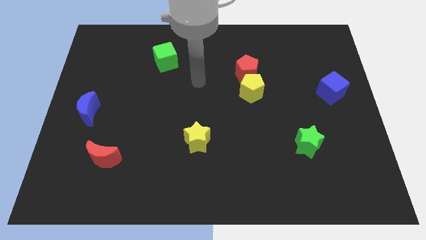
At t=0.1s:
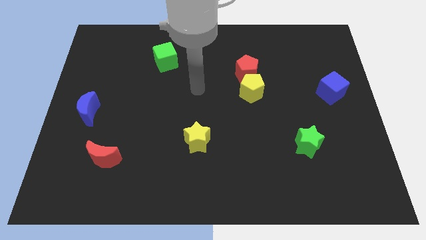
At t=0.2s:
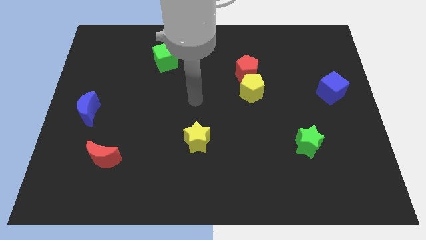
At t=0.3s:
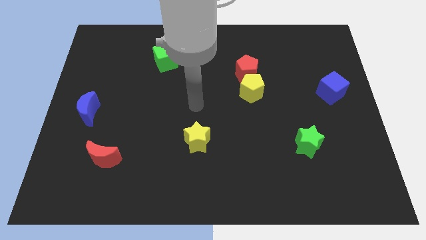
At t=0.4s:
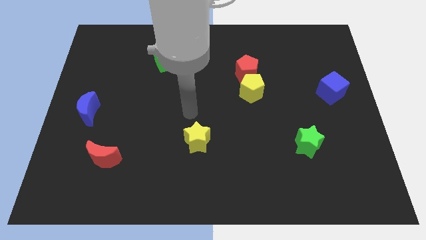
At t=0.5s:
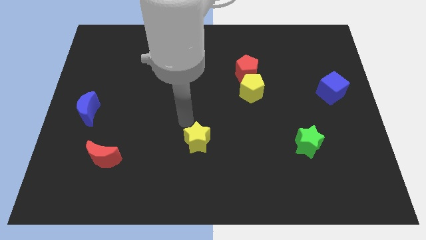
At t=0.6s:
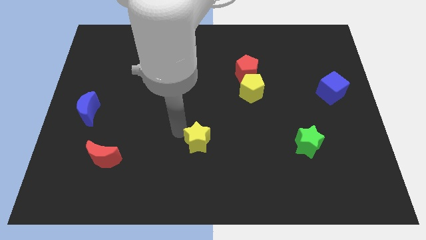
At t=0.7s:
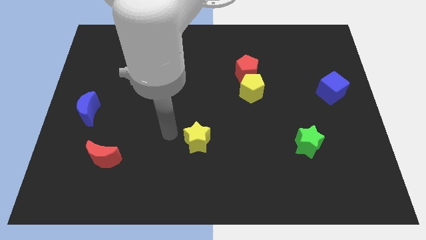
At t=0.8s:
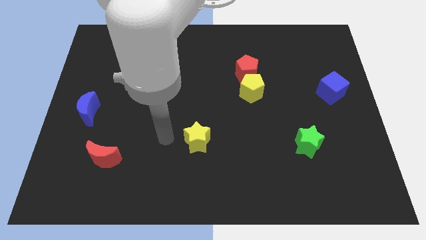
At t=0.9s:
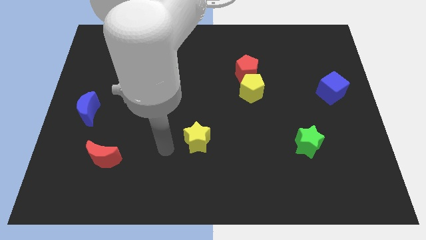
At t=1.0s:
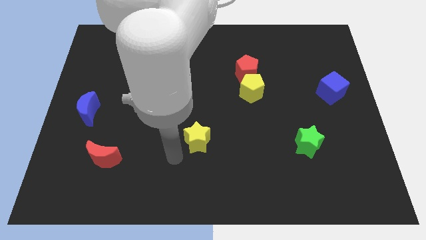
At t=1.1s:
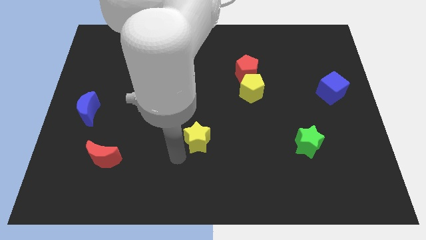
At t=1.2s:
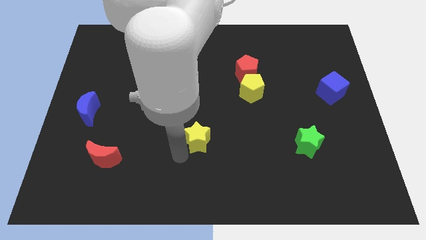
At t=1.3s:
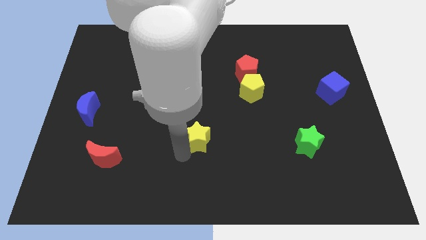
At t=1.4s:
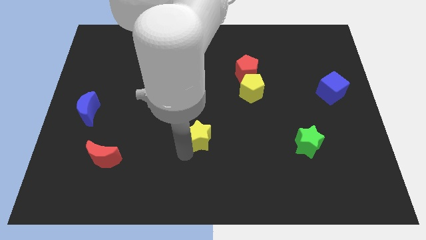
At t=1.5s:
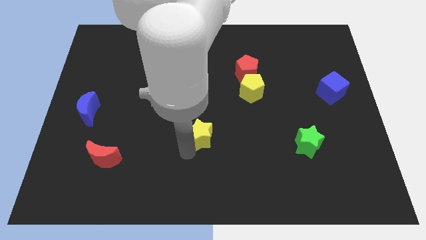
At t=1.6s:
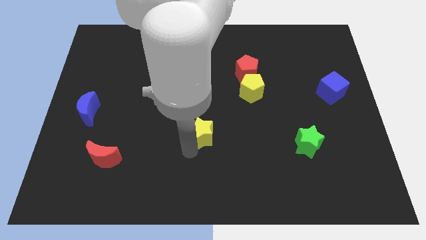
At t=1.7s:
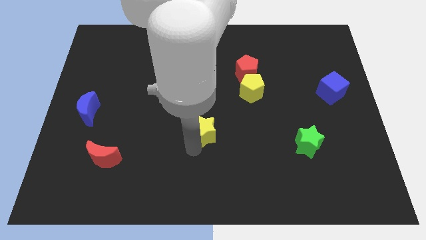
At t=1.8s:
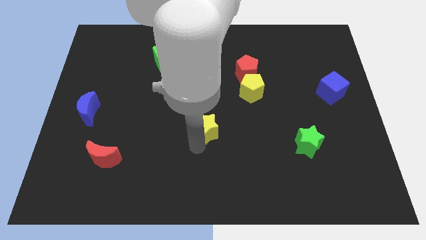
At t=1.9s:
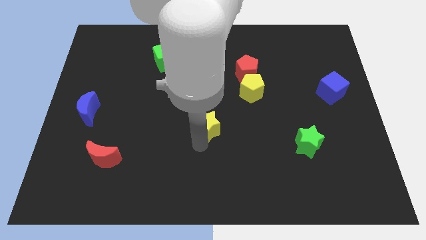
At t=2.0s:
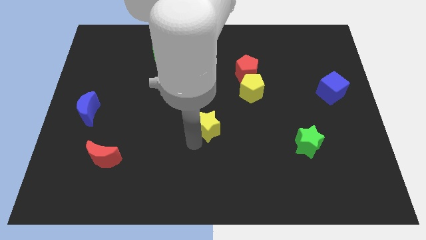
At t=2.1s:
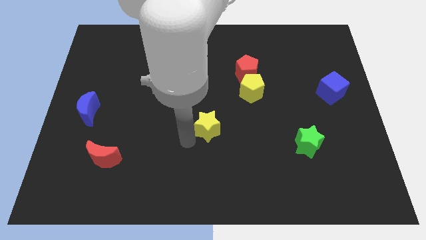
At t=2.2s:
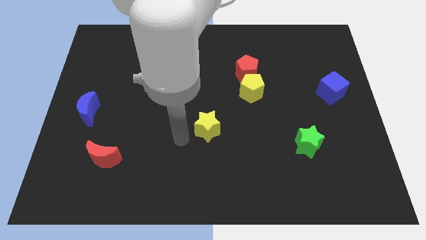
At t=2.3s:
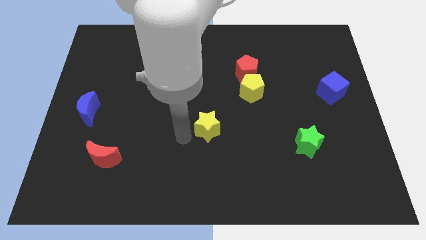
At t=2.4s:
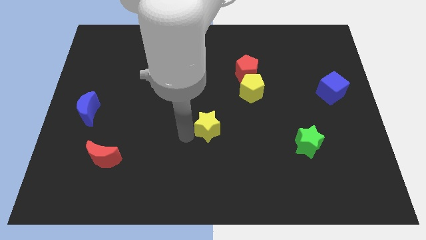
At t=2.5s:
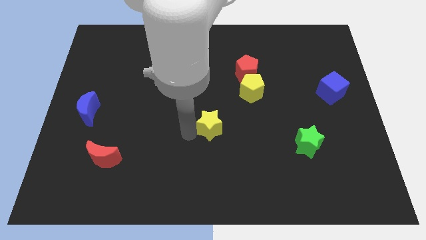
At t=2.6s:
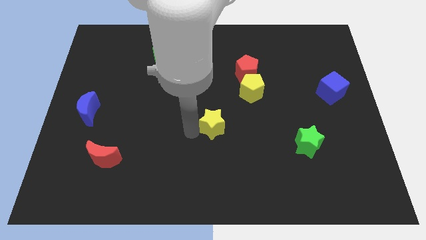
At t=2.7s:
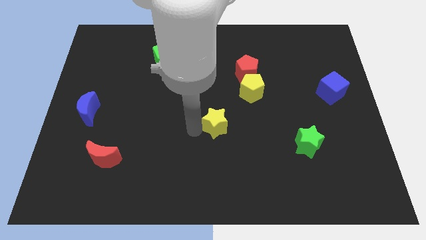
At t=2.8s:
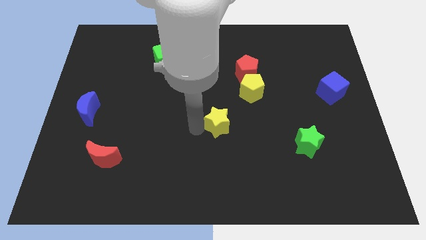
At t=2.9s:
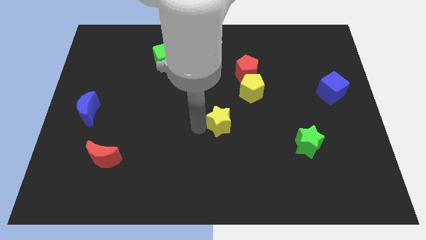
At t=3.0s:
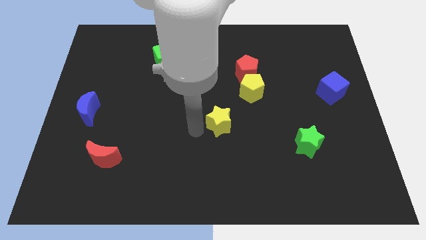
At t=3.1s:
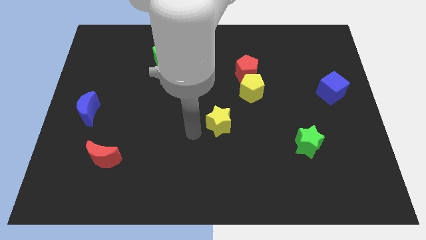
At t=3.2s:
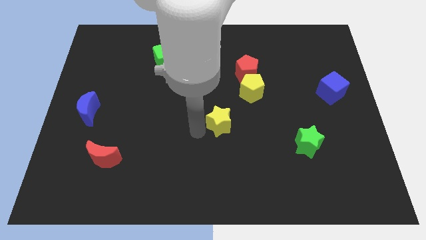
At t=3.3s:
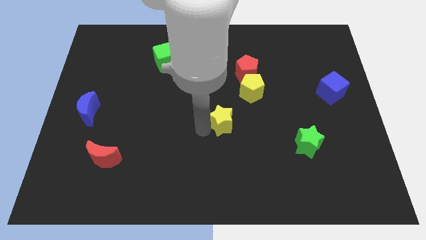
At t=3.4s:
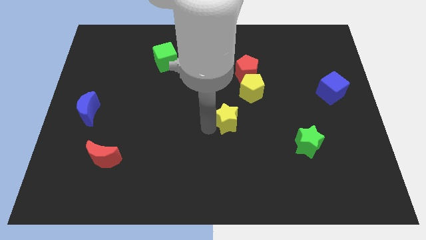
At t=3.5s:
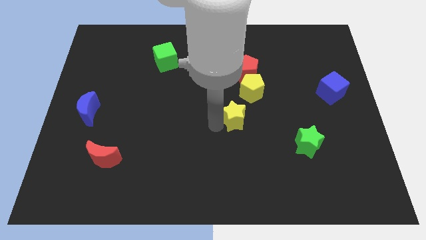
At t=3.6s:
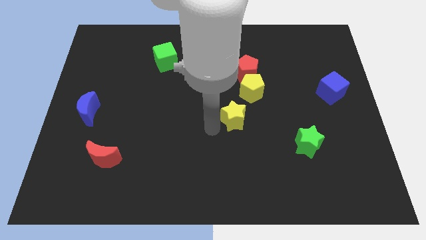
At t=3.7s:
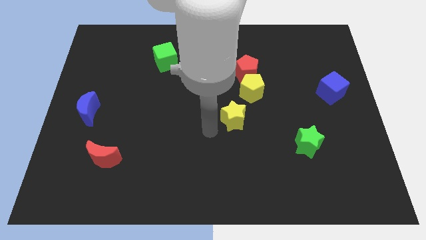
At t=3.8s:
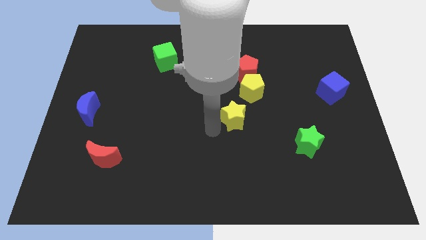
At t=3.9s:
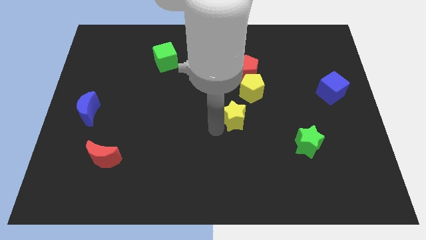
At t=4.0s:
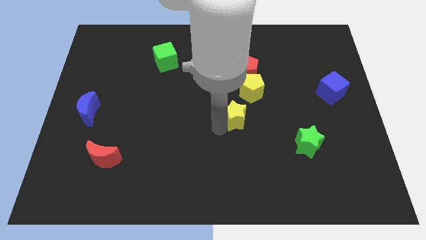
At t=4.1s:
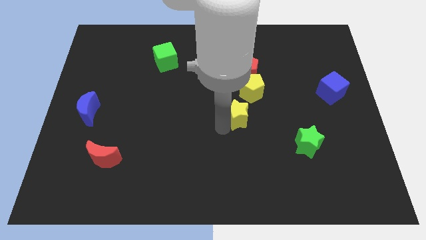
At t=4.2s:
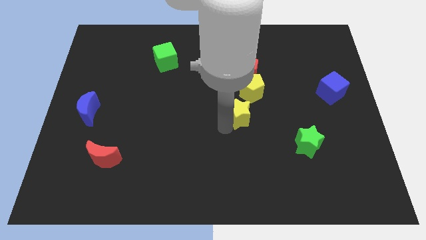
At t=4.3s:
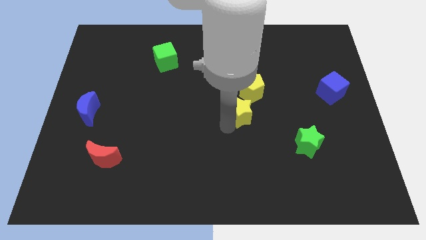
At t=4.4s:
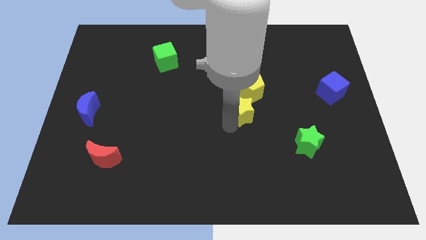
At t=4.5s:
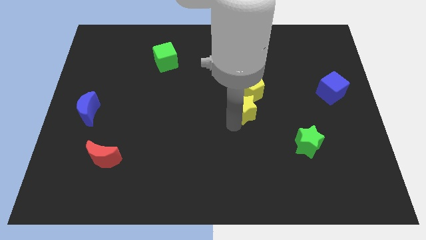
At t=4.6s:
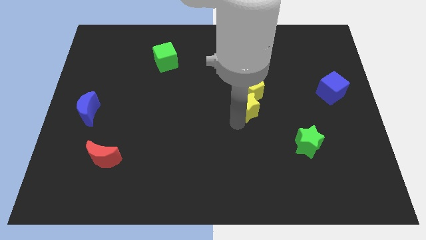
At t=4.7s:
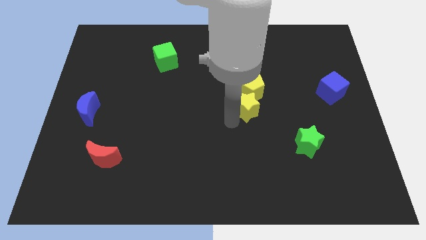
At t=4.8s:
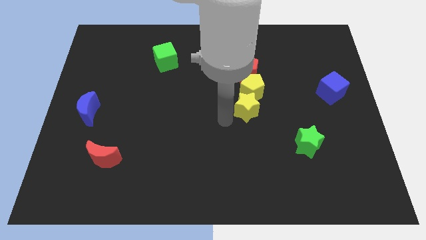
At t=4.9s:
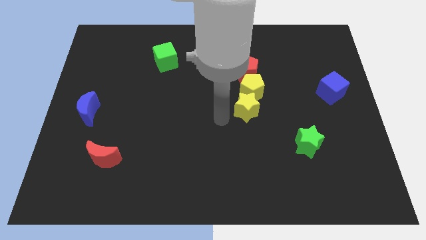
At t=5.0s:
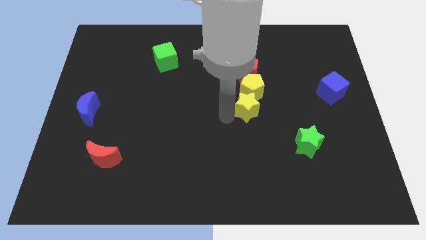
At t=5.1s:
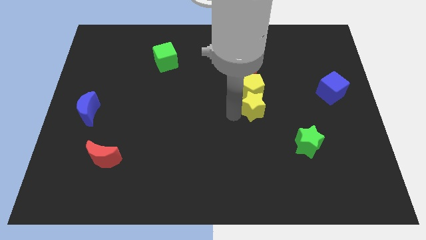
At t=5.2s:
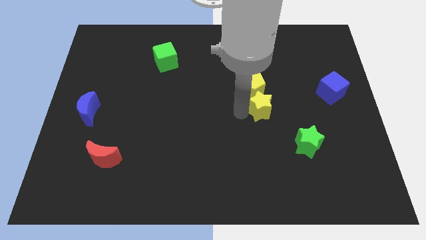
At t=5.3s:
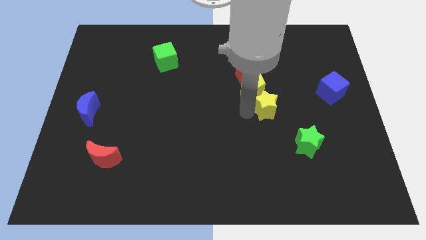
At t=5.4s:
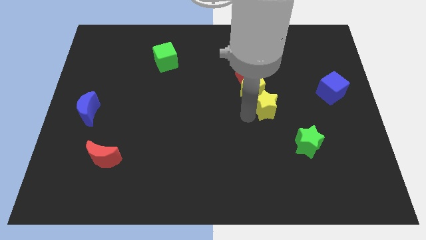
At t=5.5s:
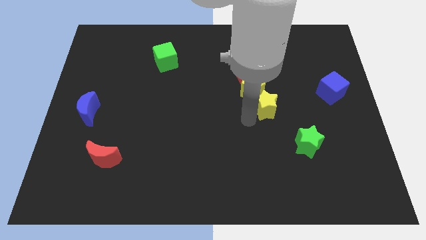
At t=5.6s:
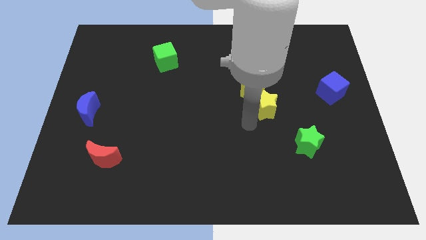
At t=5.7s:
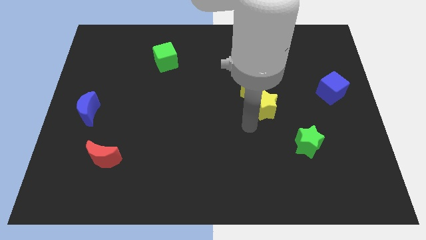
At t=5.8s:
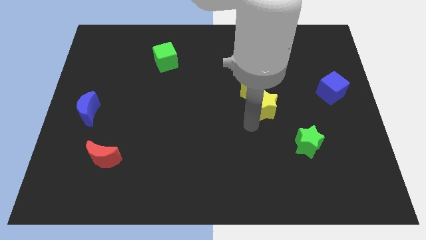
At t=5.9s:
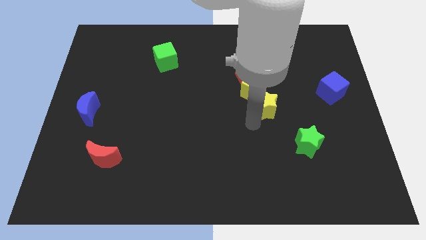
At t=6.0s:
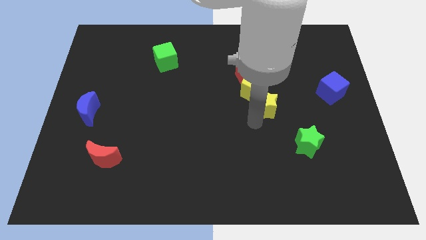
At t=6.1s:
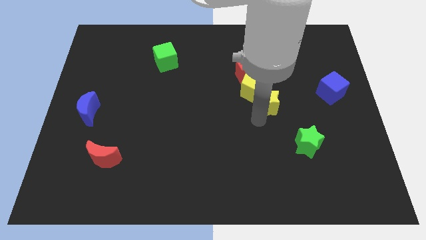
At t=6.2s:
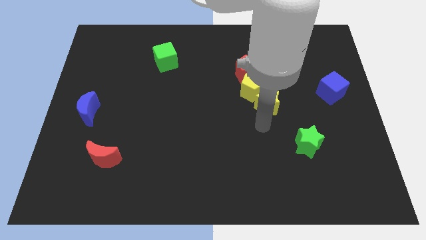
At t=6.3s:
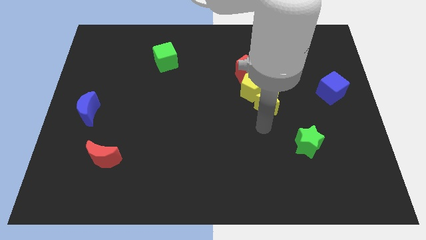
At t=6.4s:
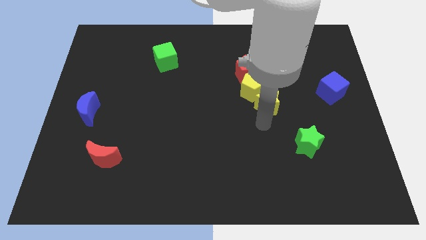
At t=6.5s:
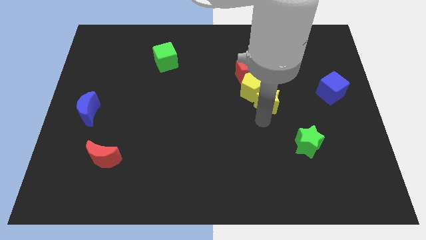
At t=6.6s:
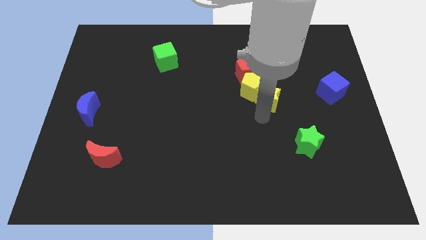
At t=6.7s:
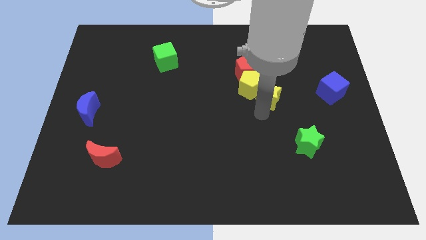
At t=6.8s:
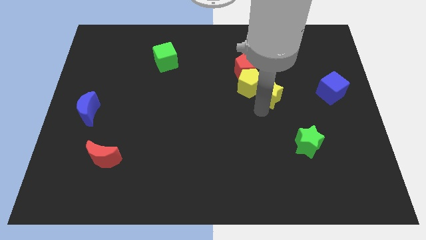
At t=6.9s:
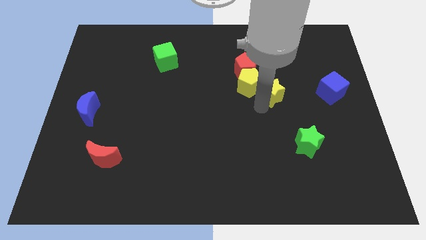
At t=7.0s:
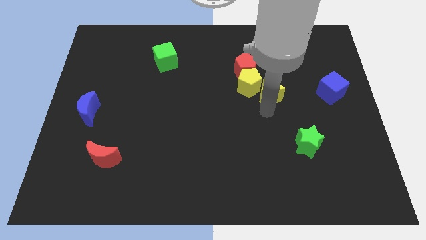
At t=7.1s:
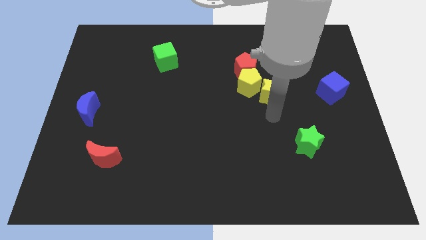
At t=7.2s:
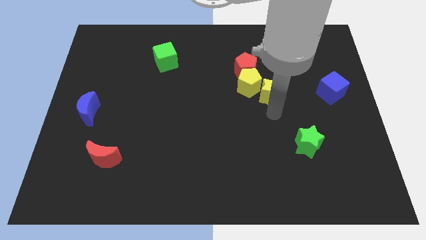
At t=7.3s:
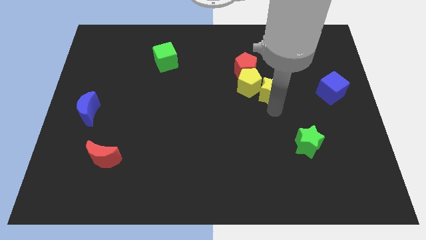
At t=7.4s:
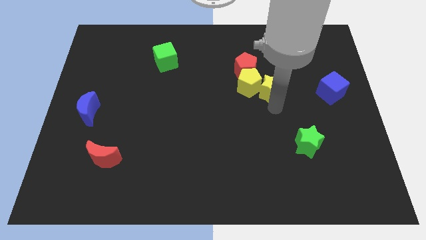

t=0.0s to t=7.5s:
push the yellow star to the top right of the yellow pentagon
